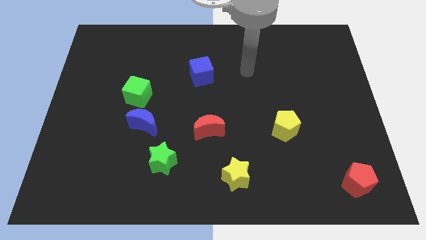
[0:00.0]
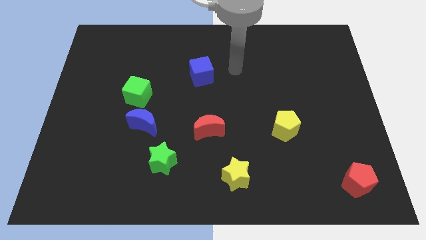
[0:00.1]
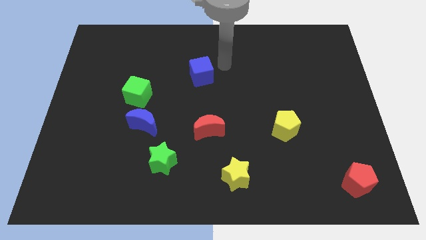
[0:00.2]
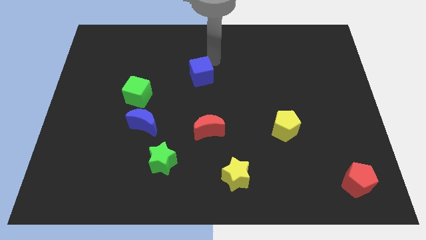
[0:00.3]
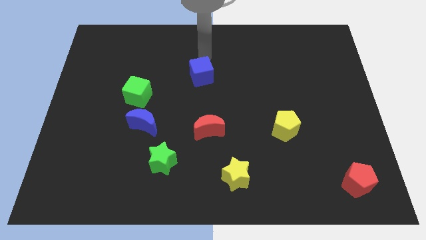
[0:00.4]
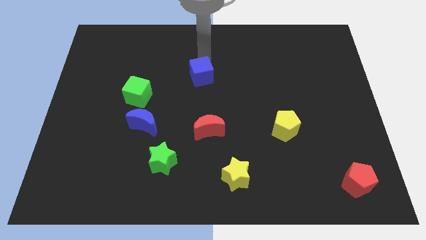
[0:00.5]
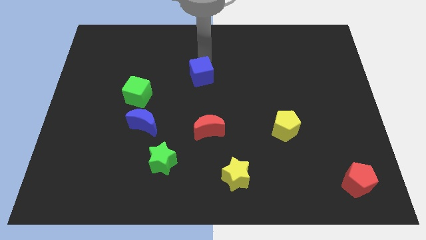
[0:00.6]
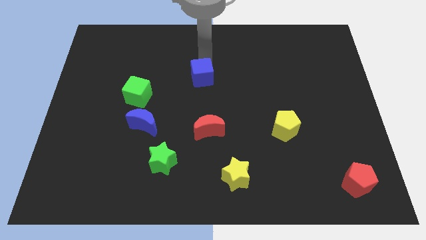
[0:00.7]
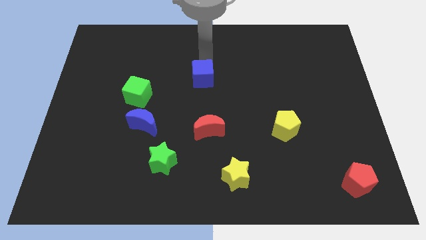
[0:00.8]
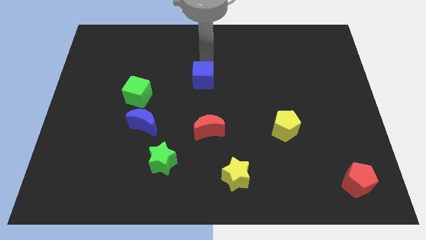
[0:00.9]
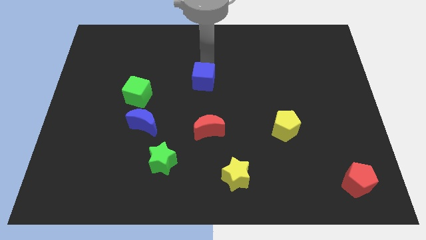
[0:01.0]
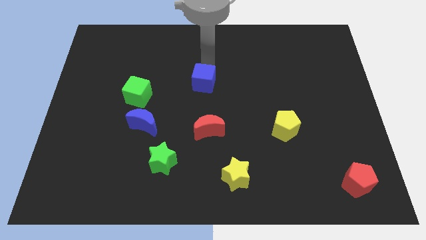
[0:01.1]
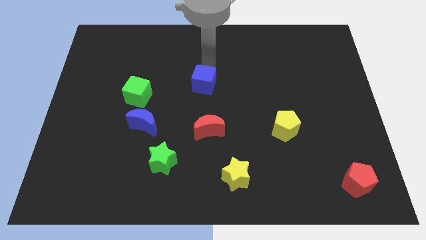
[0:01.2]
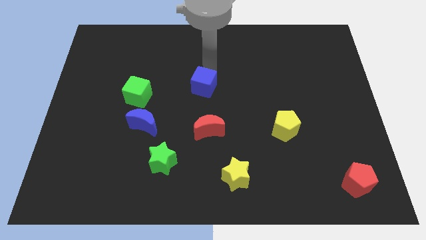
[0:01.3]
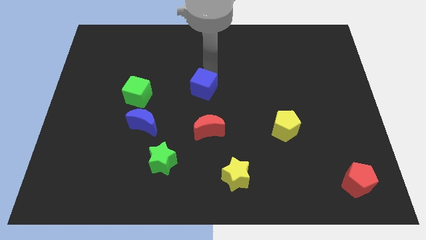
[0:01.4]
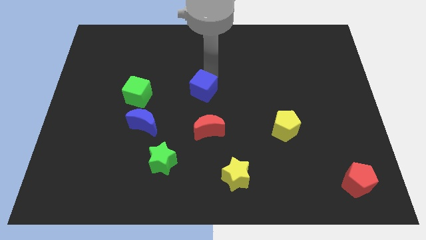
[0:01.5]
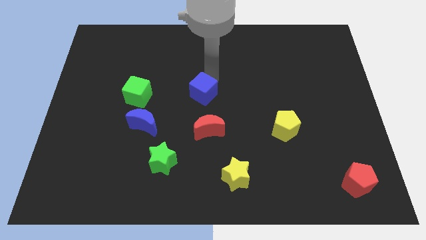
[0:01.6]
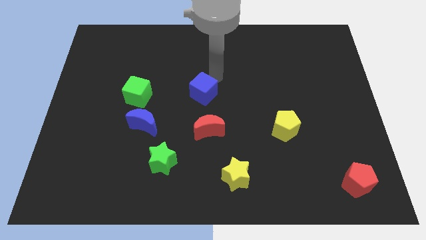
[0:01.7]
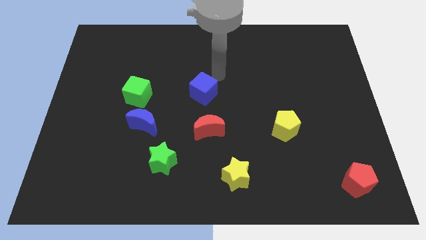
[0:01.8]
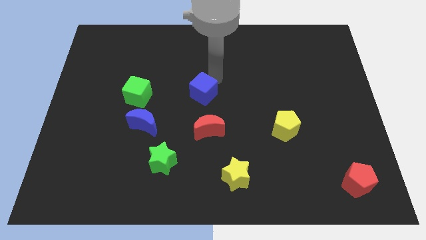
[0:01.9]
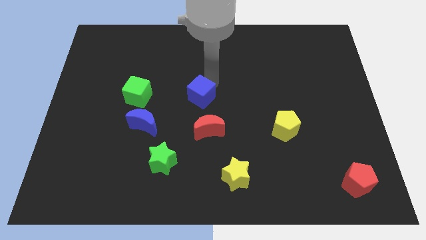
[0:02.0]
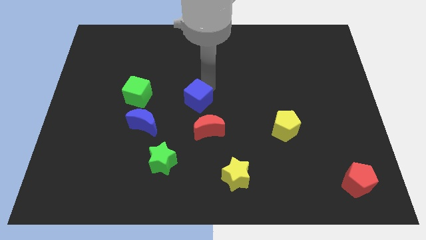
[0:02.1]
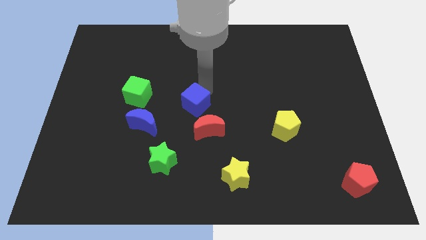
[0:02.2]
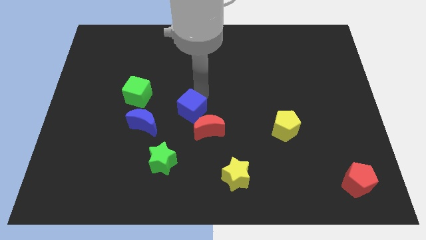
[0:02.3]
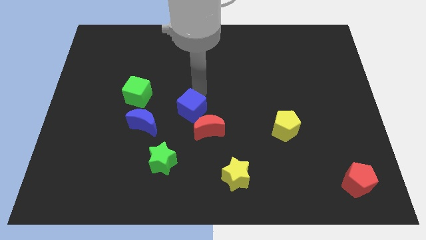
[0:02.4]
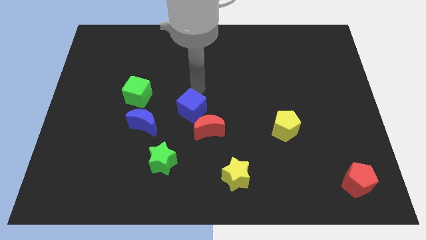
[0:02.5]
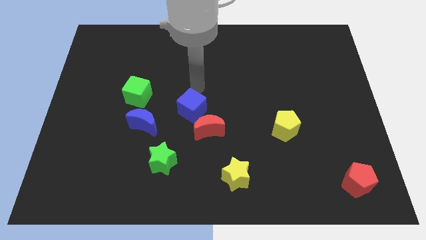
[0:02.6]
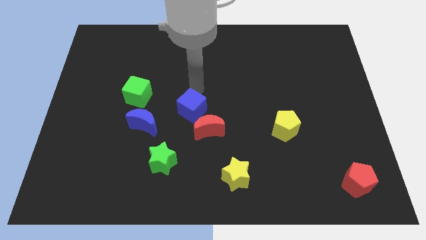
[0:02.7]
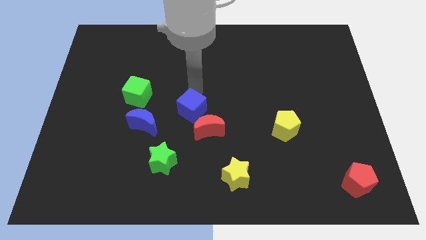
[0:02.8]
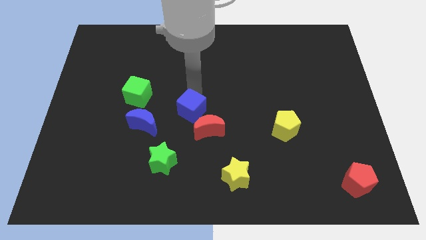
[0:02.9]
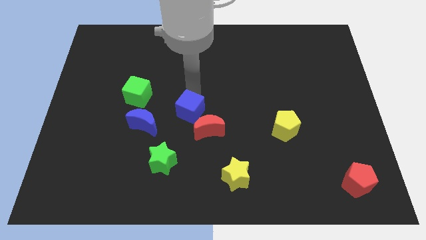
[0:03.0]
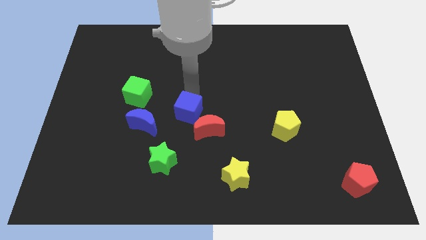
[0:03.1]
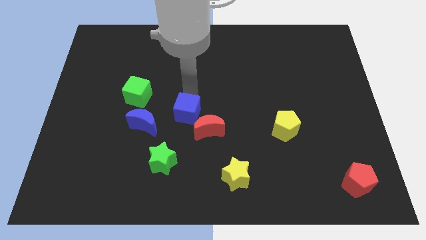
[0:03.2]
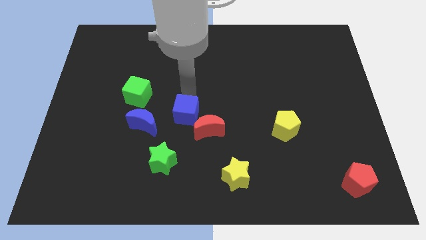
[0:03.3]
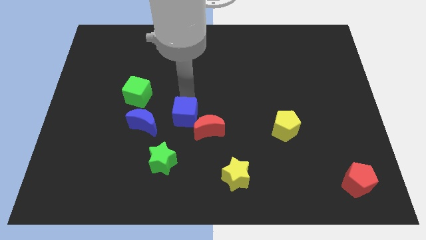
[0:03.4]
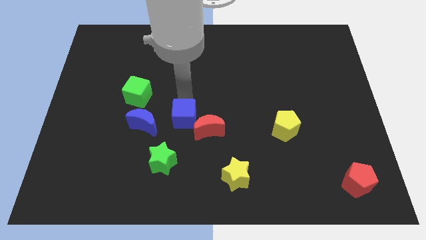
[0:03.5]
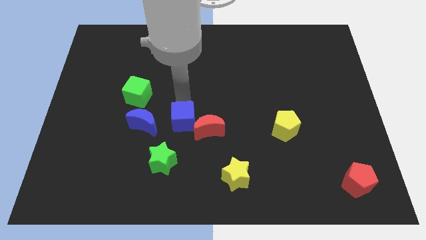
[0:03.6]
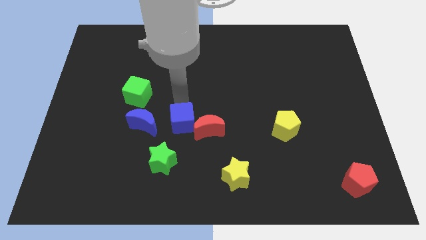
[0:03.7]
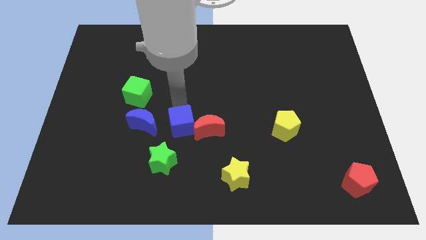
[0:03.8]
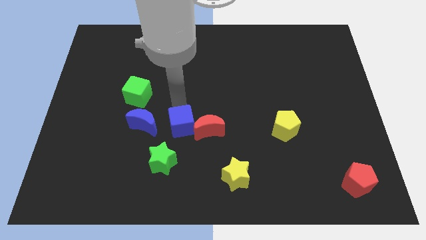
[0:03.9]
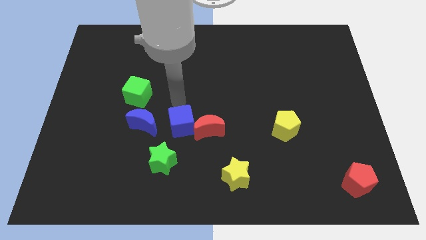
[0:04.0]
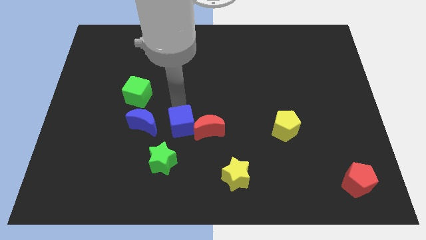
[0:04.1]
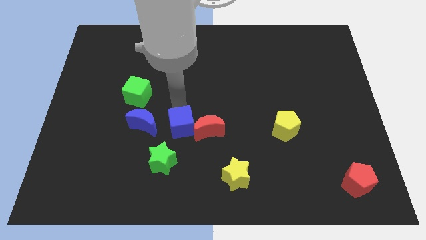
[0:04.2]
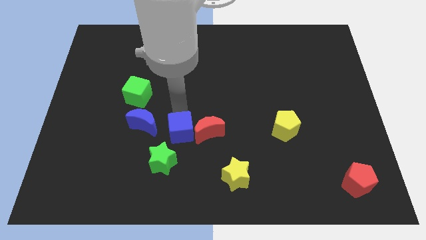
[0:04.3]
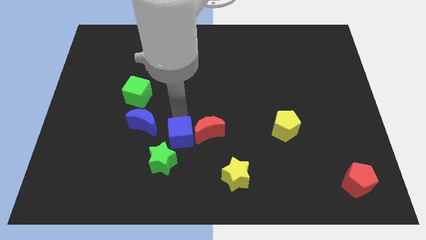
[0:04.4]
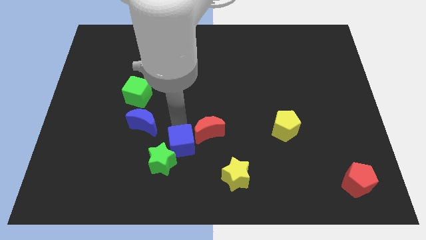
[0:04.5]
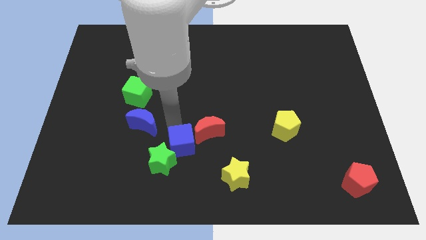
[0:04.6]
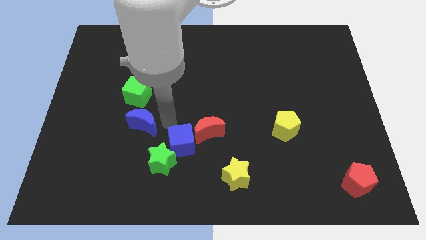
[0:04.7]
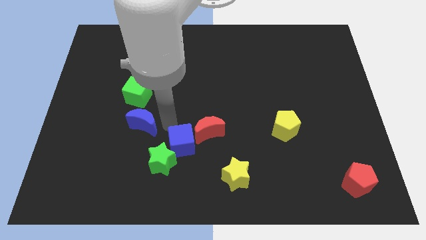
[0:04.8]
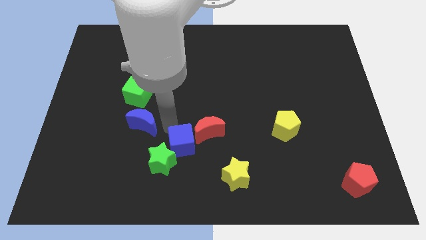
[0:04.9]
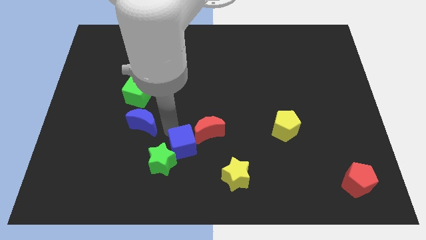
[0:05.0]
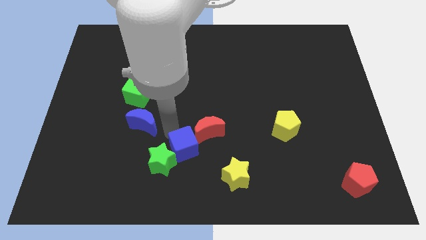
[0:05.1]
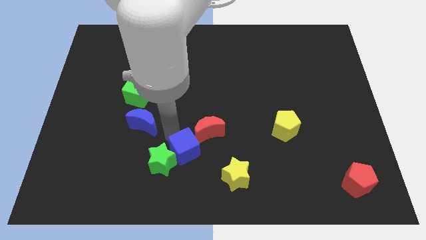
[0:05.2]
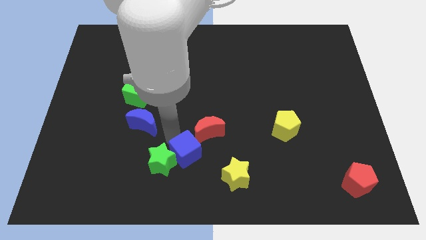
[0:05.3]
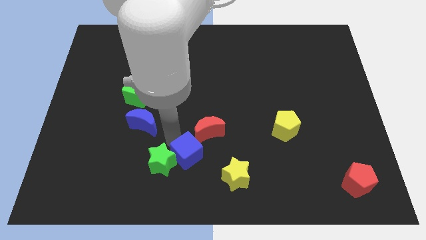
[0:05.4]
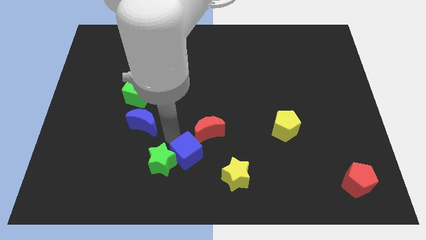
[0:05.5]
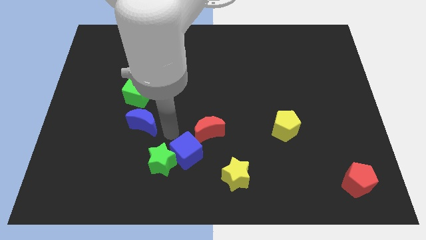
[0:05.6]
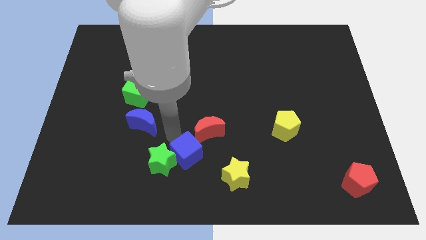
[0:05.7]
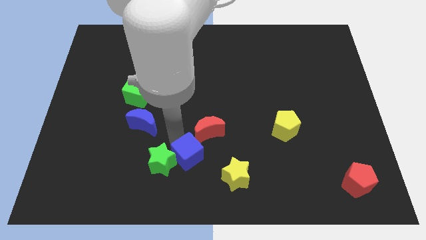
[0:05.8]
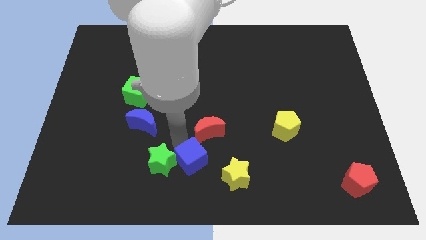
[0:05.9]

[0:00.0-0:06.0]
put the blue cube to the left of the yellow star

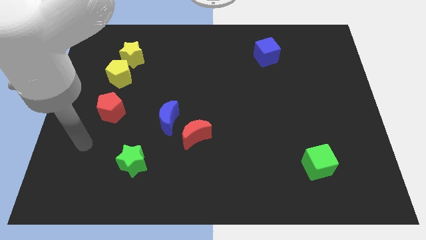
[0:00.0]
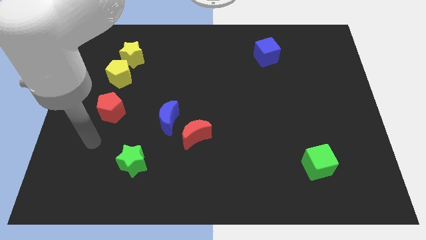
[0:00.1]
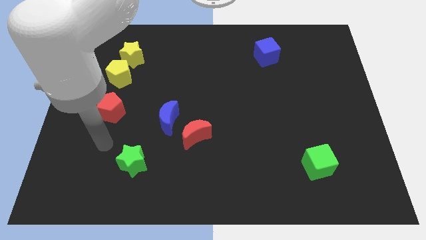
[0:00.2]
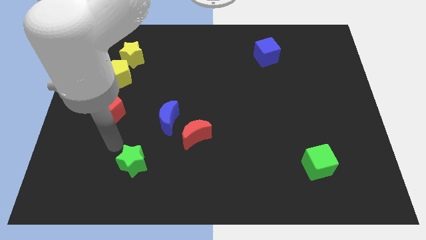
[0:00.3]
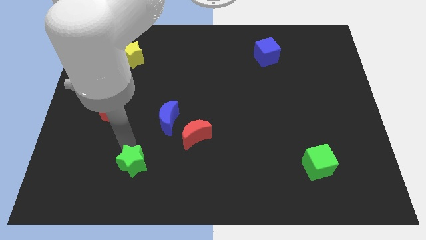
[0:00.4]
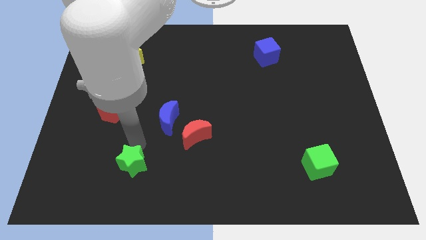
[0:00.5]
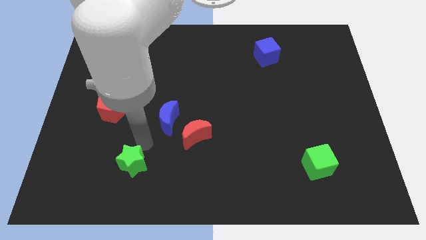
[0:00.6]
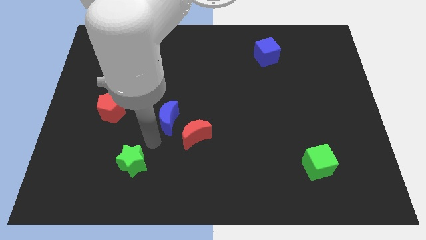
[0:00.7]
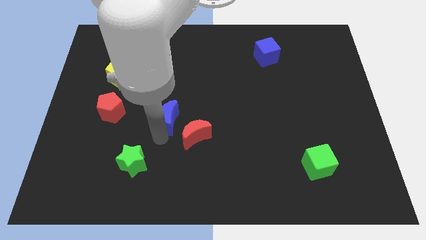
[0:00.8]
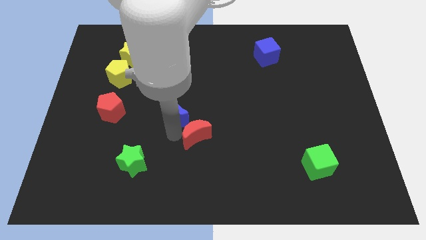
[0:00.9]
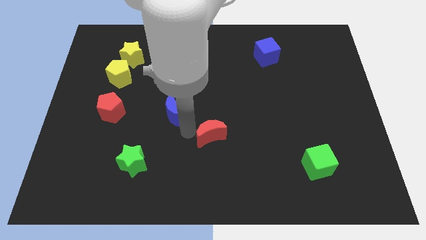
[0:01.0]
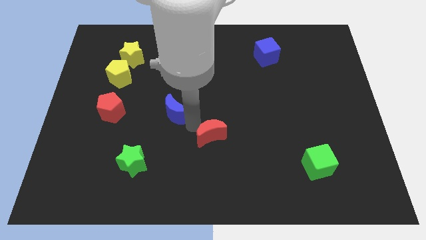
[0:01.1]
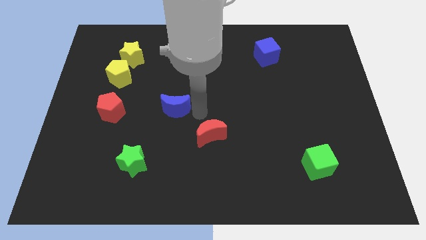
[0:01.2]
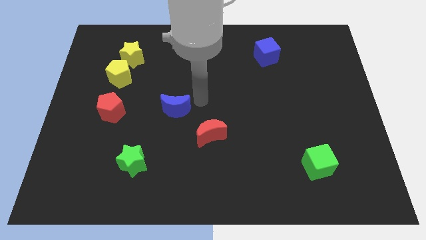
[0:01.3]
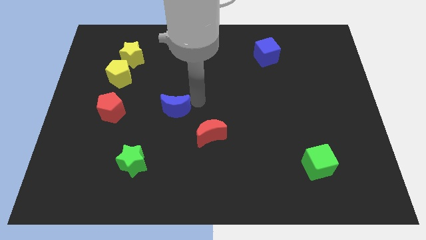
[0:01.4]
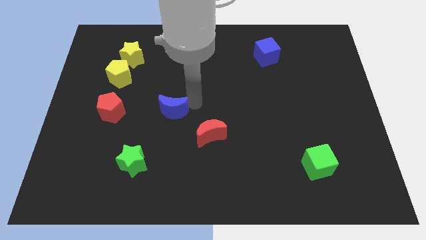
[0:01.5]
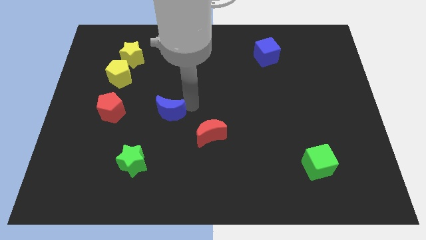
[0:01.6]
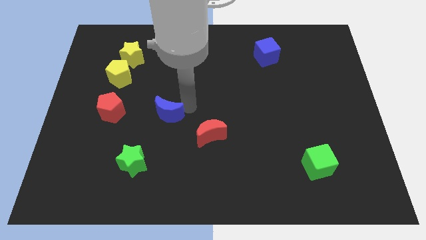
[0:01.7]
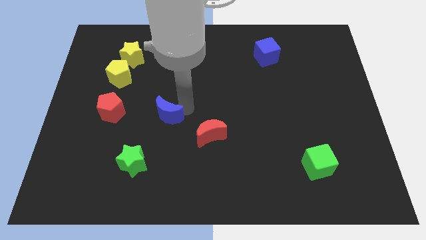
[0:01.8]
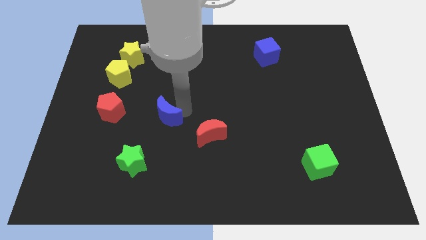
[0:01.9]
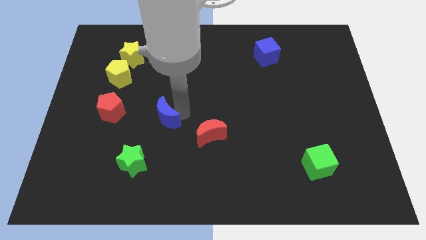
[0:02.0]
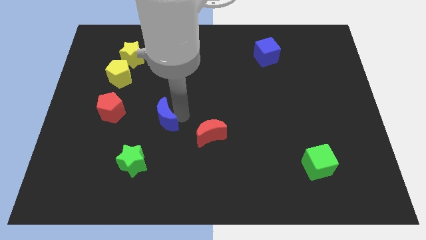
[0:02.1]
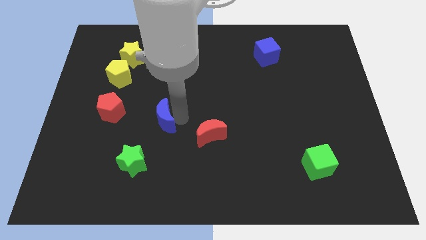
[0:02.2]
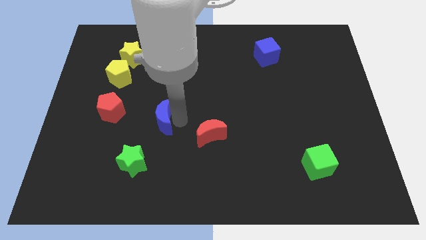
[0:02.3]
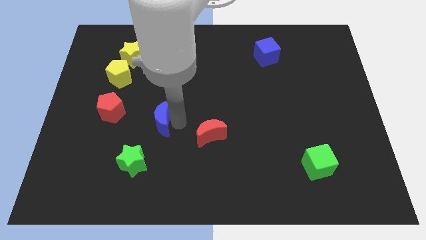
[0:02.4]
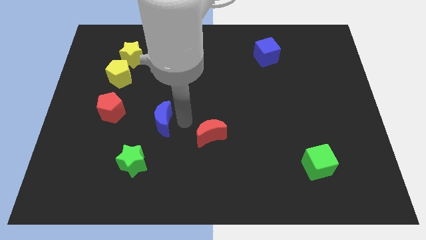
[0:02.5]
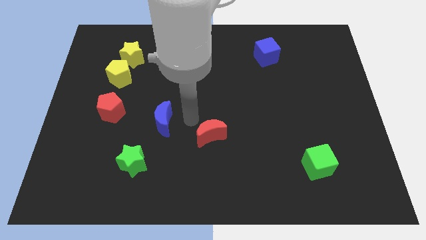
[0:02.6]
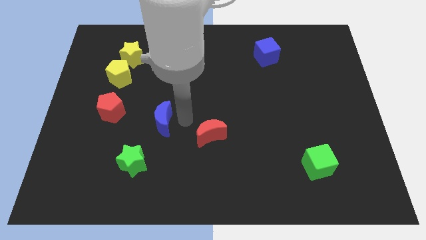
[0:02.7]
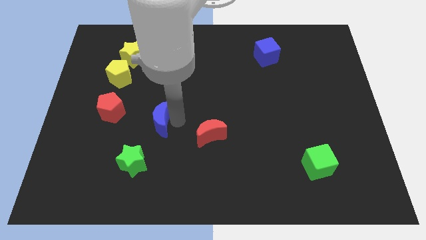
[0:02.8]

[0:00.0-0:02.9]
push the blue moon to the top side of the green star
